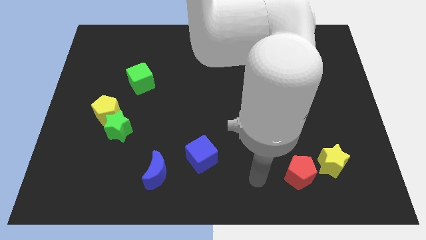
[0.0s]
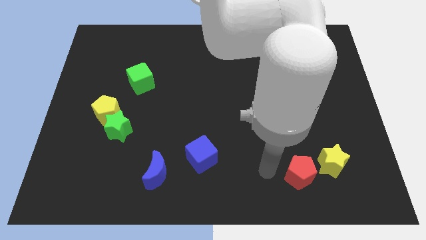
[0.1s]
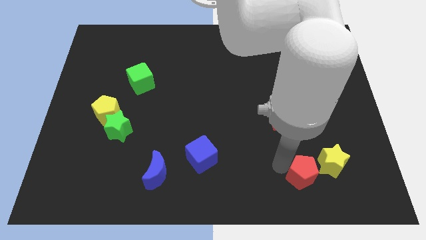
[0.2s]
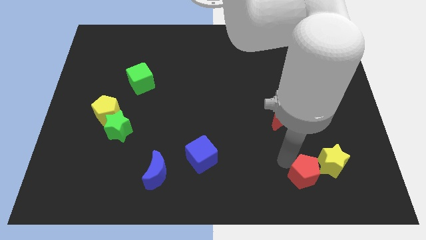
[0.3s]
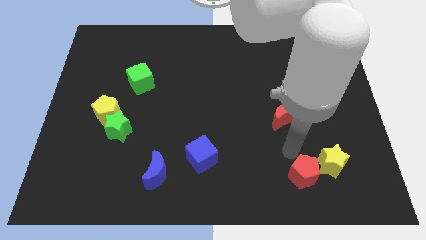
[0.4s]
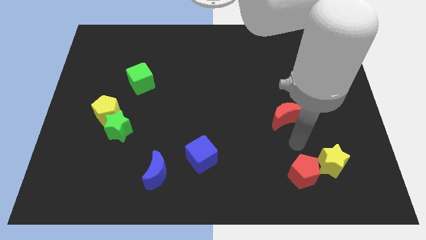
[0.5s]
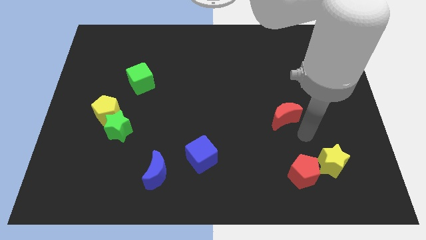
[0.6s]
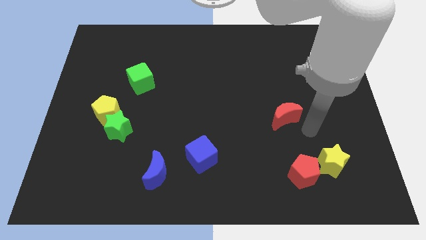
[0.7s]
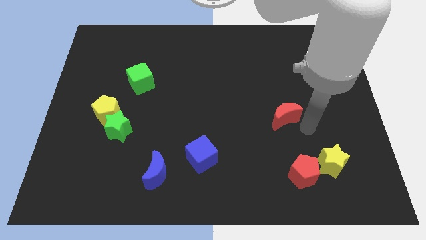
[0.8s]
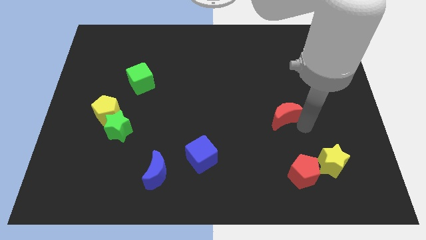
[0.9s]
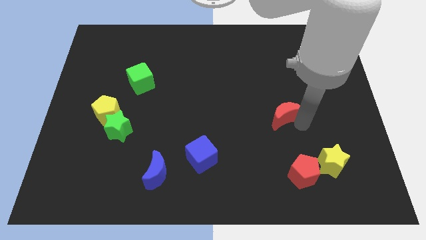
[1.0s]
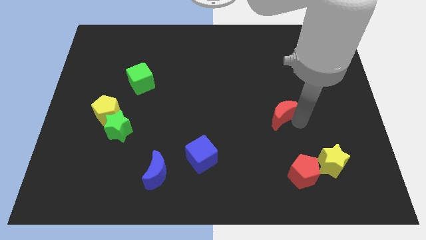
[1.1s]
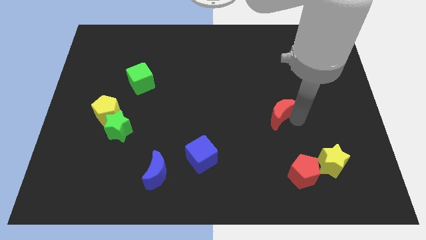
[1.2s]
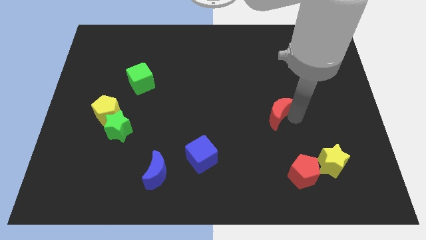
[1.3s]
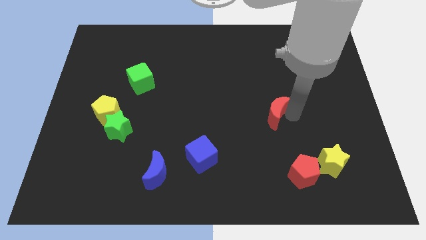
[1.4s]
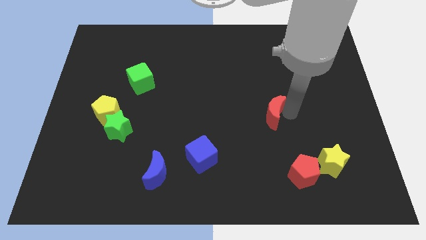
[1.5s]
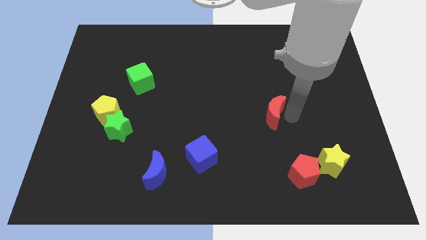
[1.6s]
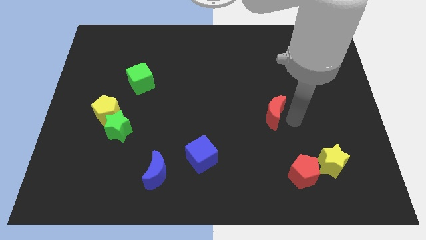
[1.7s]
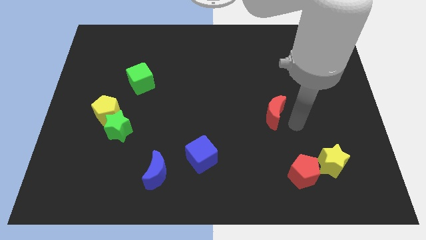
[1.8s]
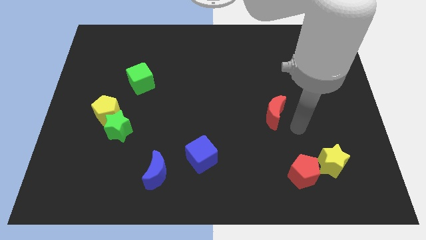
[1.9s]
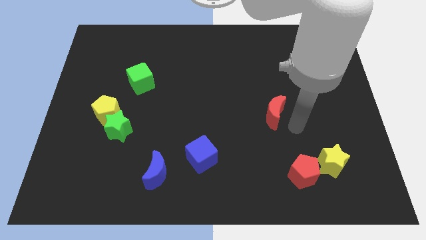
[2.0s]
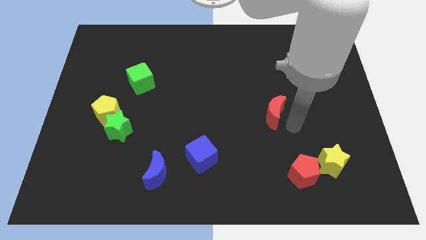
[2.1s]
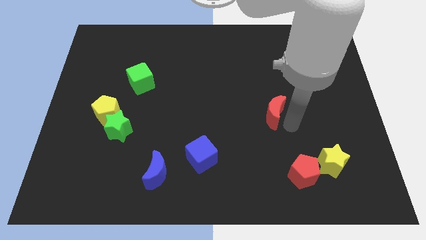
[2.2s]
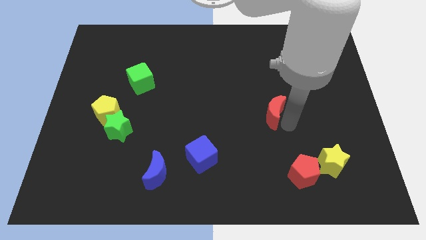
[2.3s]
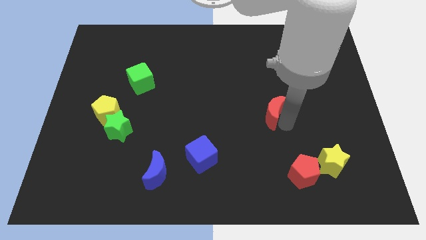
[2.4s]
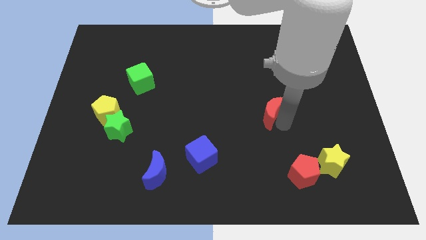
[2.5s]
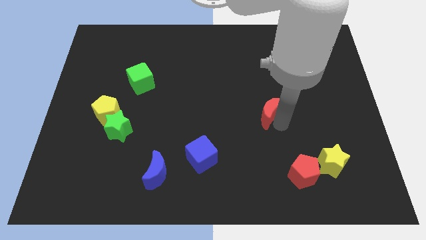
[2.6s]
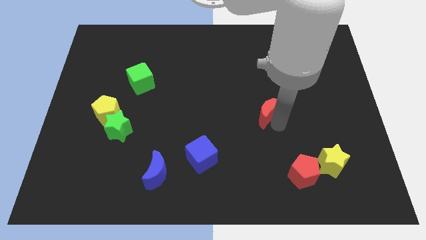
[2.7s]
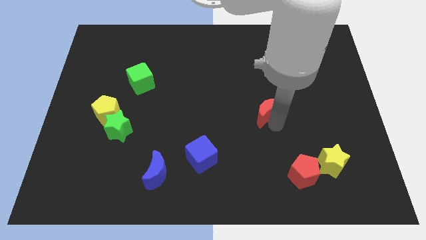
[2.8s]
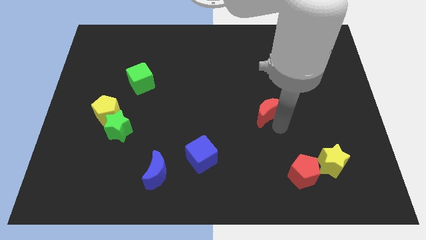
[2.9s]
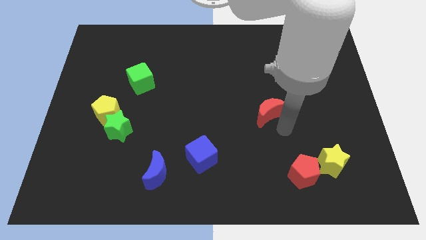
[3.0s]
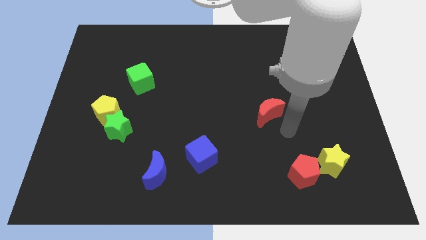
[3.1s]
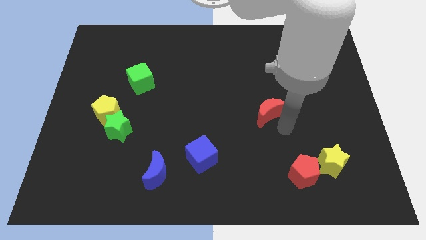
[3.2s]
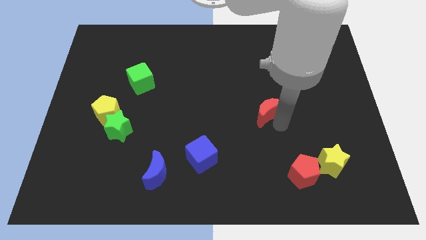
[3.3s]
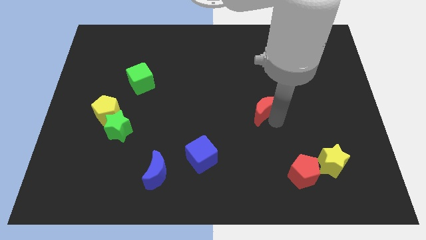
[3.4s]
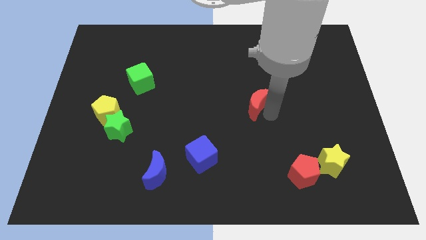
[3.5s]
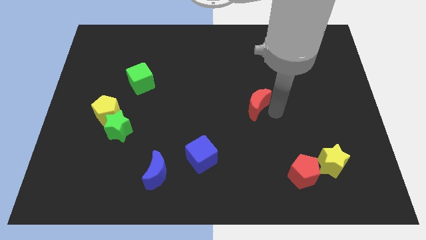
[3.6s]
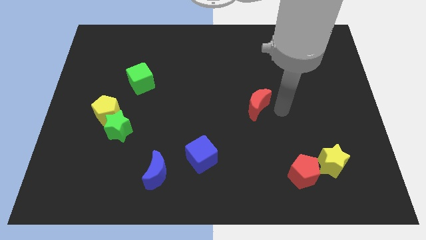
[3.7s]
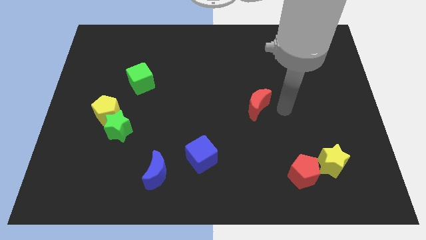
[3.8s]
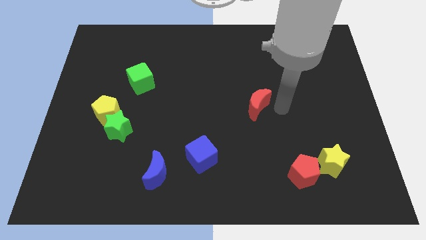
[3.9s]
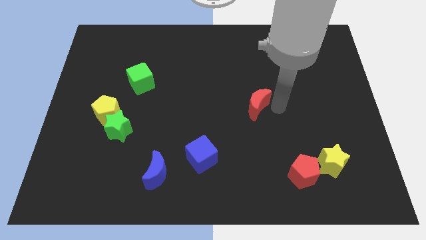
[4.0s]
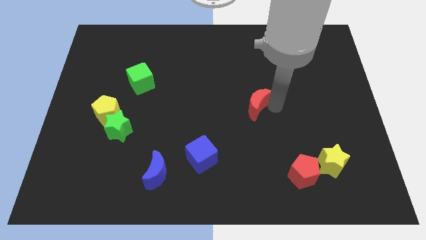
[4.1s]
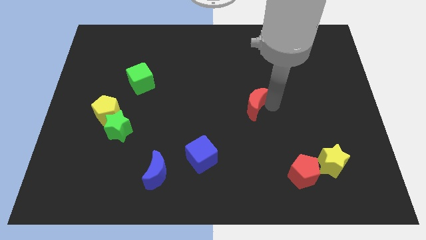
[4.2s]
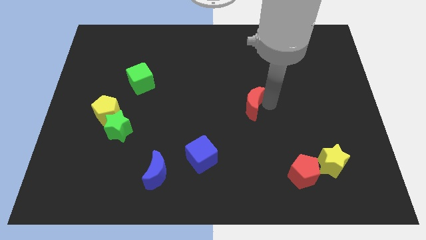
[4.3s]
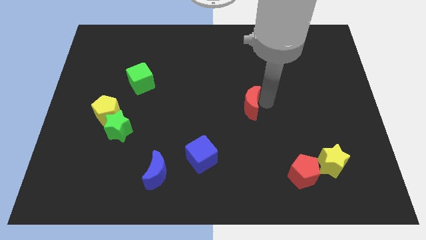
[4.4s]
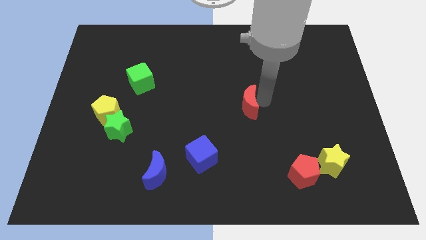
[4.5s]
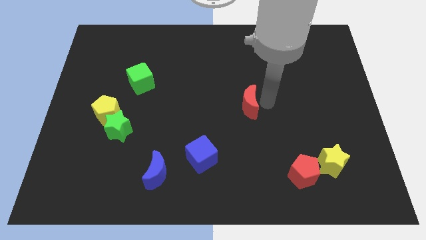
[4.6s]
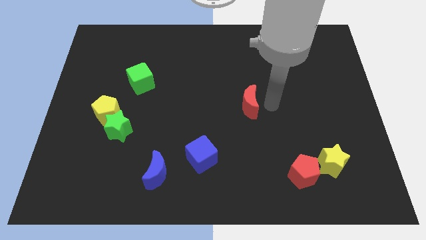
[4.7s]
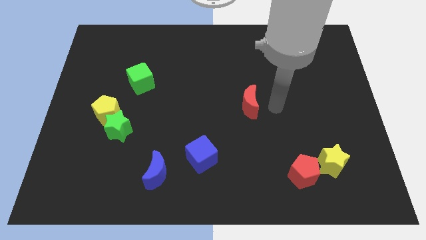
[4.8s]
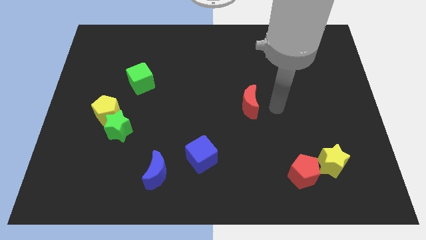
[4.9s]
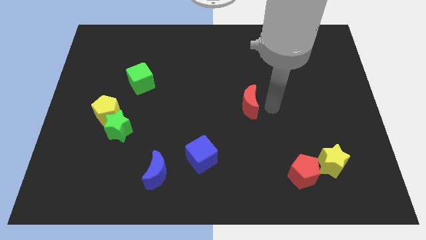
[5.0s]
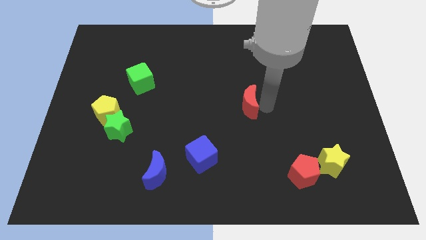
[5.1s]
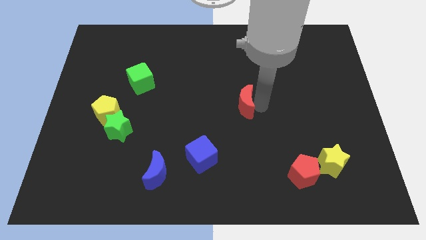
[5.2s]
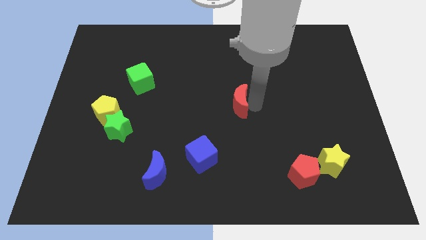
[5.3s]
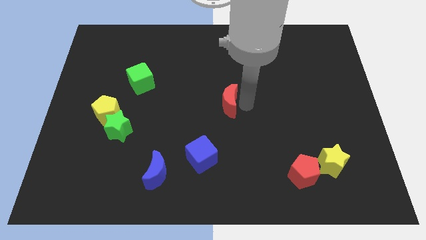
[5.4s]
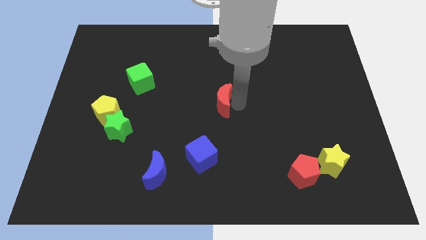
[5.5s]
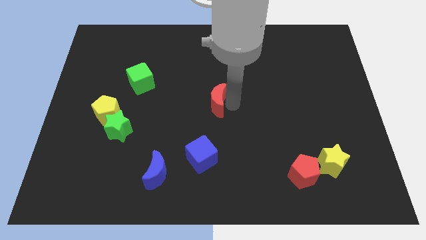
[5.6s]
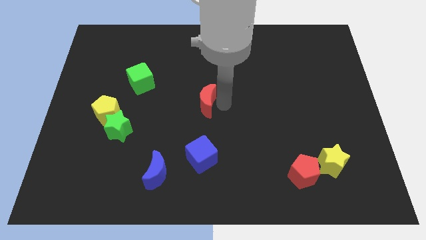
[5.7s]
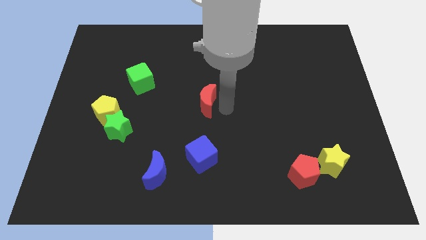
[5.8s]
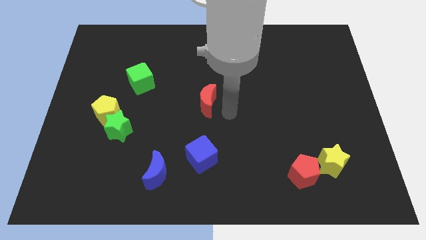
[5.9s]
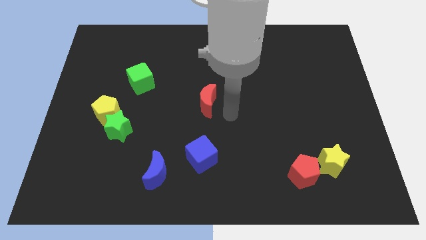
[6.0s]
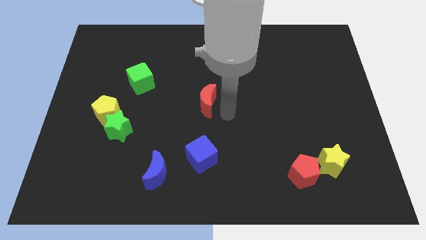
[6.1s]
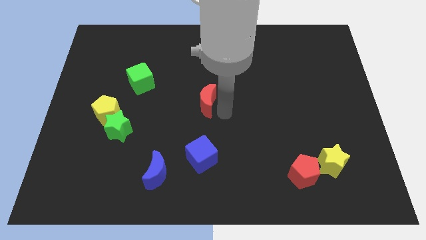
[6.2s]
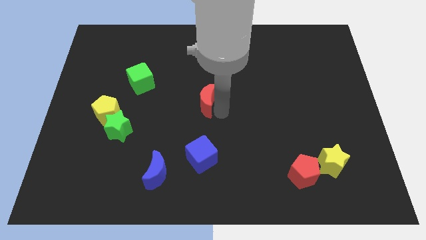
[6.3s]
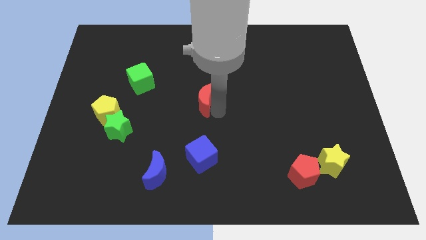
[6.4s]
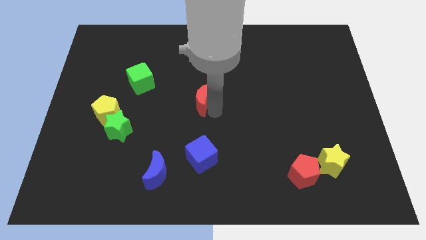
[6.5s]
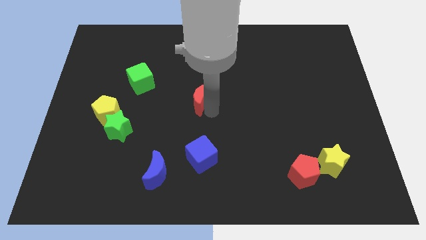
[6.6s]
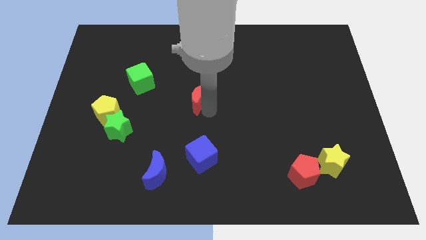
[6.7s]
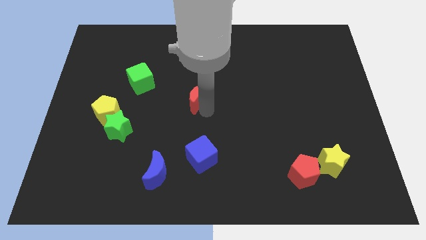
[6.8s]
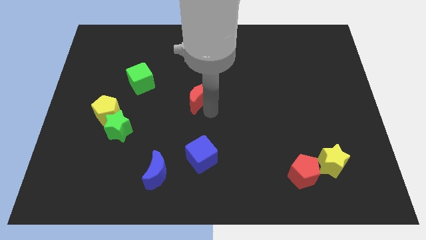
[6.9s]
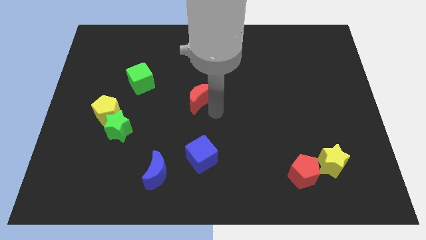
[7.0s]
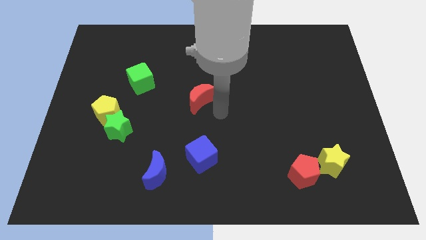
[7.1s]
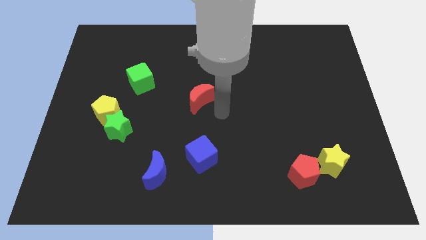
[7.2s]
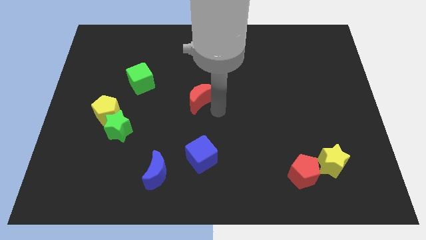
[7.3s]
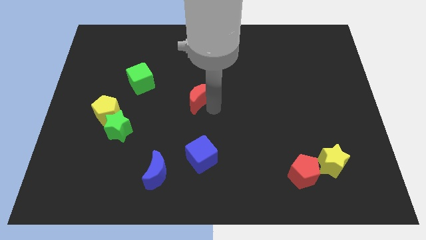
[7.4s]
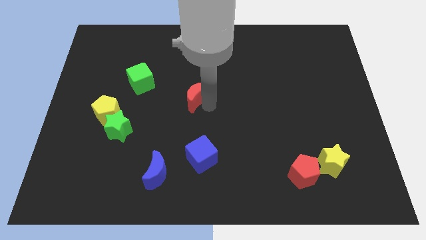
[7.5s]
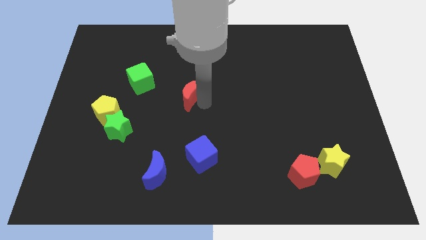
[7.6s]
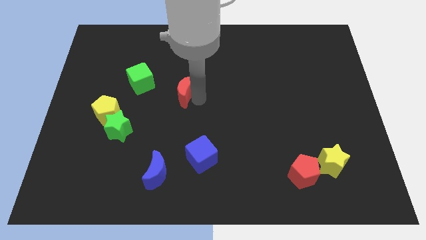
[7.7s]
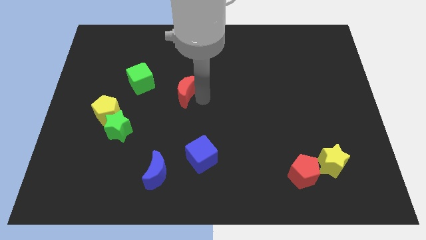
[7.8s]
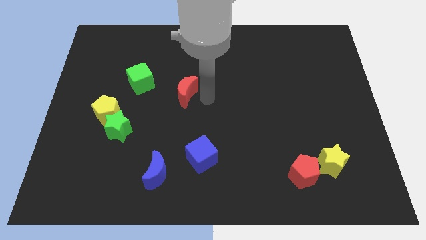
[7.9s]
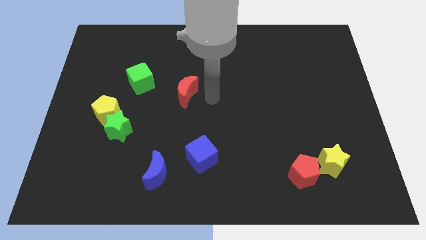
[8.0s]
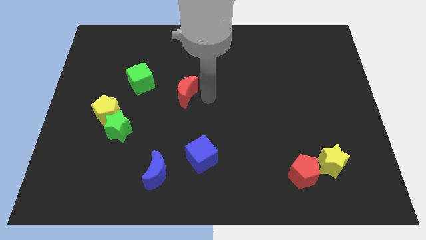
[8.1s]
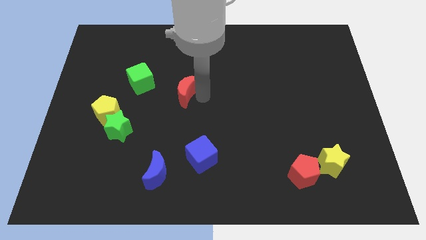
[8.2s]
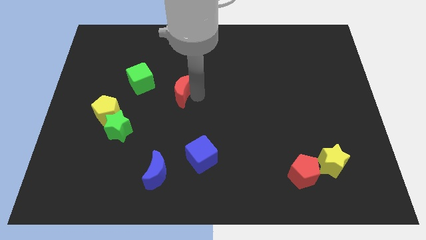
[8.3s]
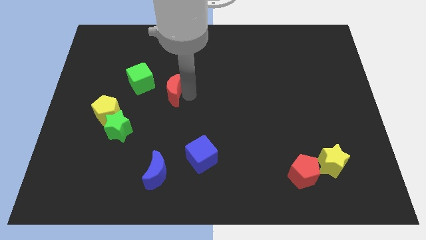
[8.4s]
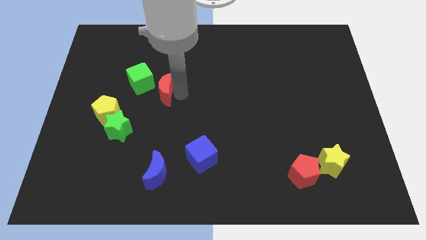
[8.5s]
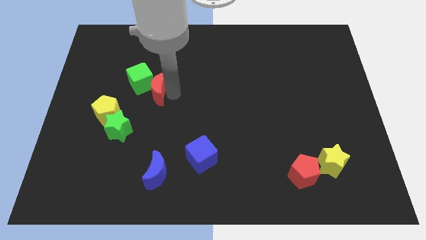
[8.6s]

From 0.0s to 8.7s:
put the red moon next to the green cube
